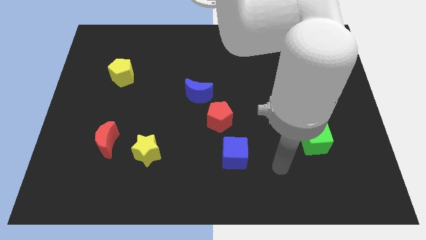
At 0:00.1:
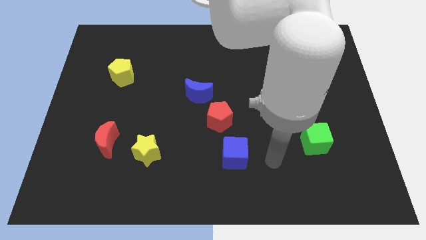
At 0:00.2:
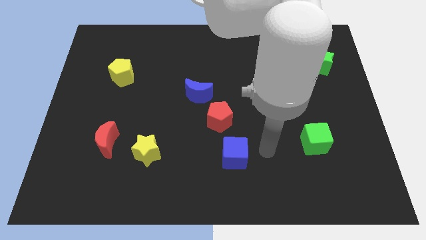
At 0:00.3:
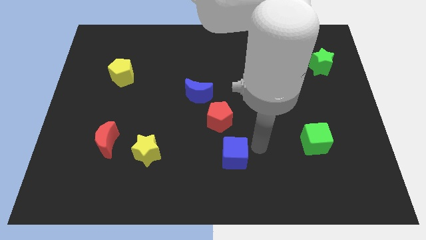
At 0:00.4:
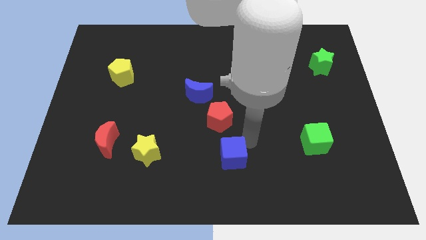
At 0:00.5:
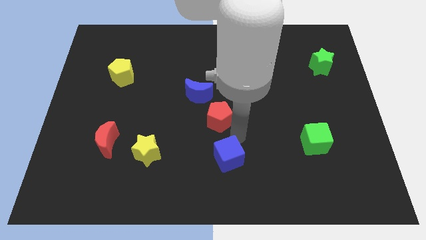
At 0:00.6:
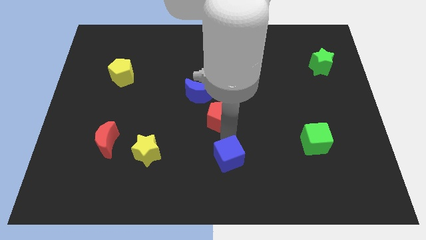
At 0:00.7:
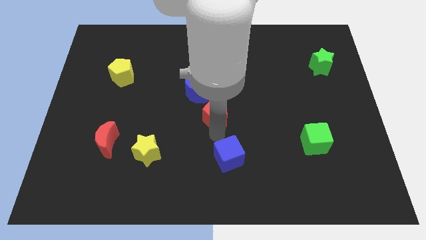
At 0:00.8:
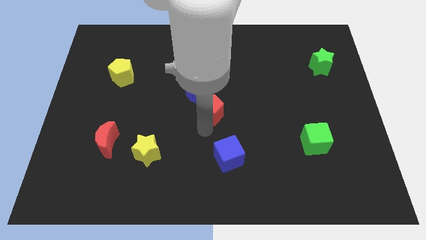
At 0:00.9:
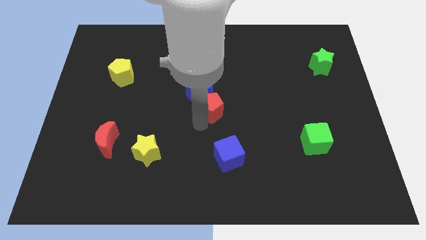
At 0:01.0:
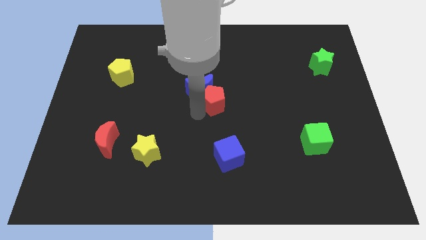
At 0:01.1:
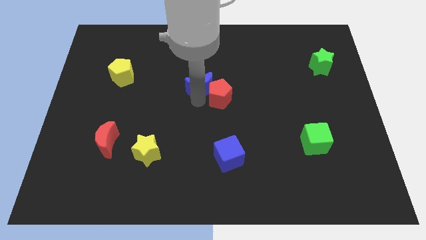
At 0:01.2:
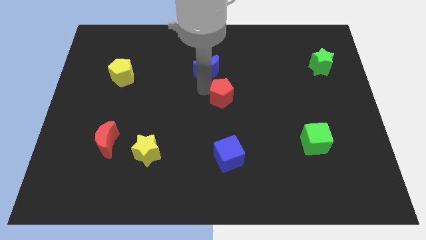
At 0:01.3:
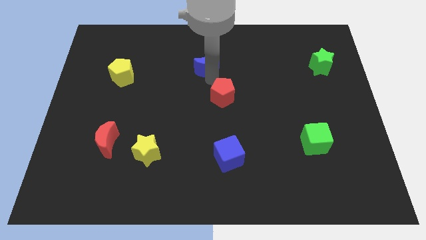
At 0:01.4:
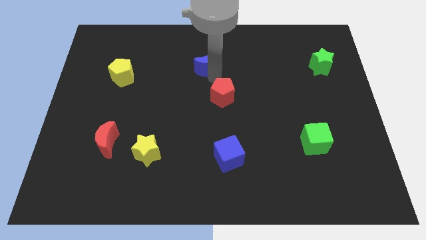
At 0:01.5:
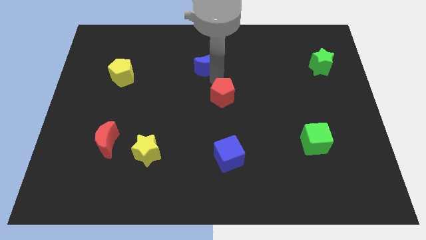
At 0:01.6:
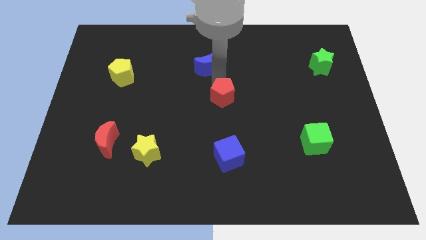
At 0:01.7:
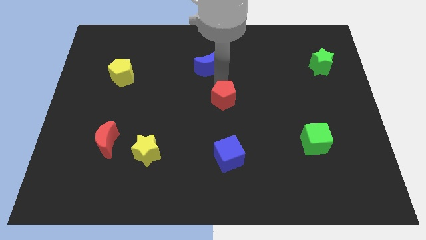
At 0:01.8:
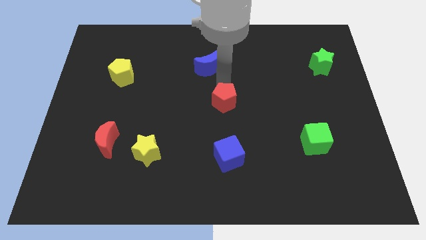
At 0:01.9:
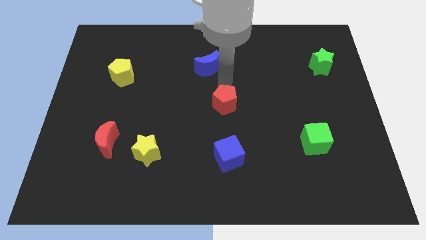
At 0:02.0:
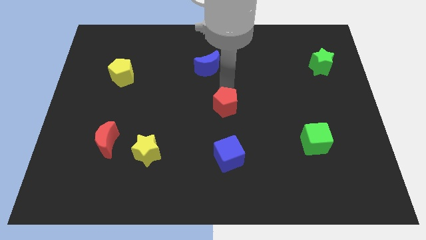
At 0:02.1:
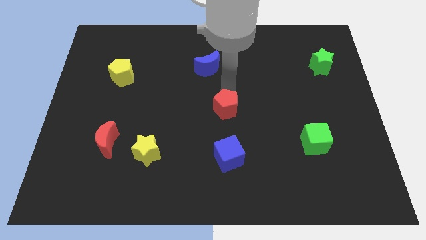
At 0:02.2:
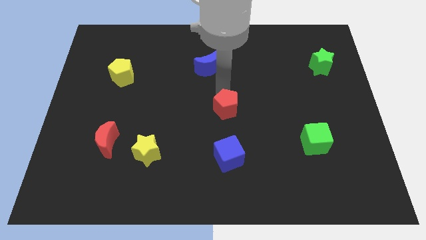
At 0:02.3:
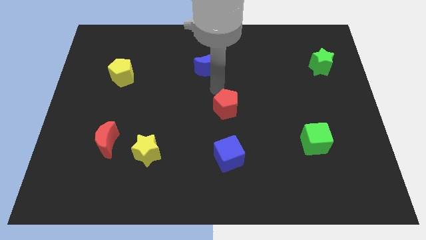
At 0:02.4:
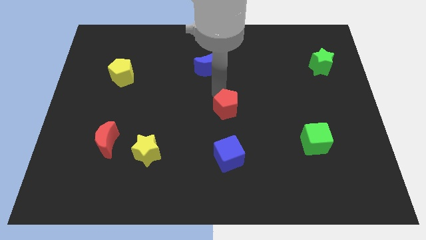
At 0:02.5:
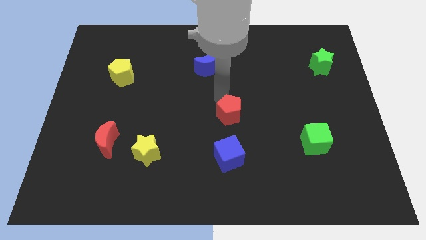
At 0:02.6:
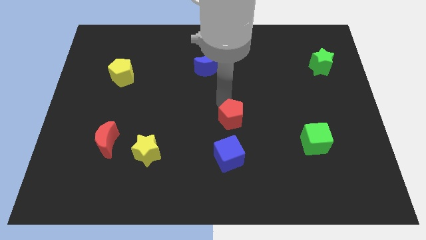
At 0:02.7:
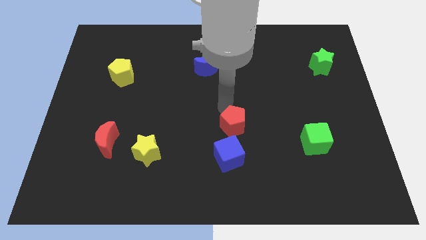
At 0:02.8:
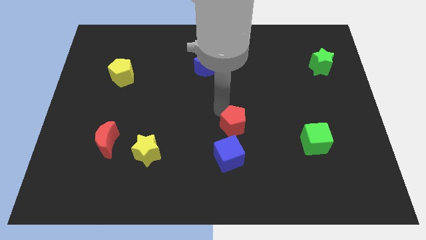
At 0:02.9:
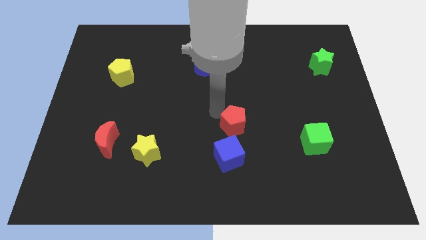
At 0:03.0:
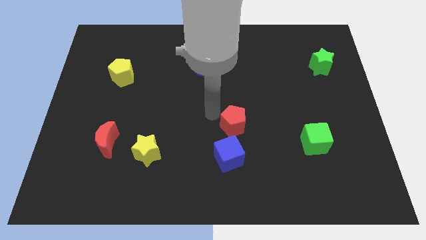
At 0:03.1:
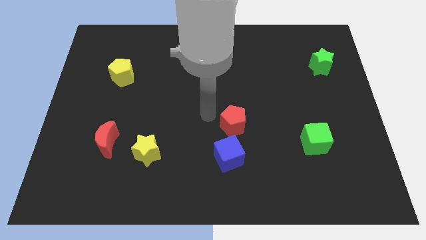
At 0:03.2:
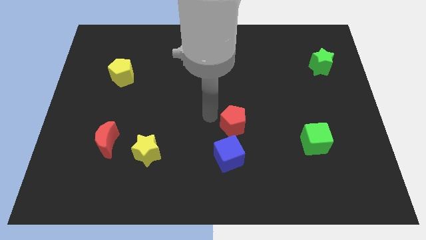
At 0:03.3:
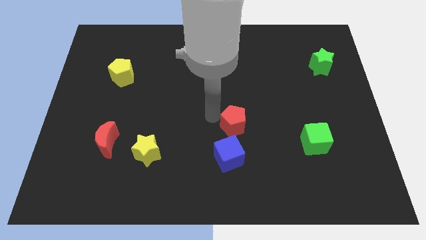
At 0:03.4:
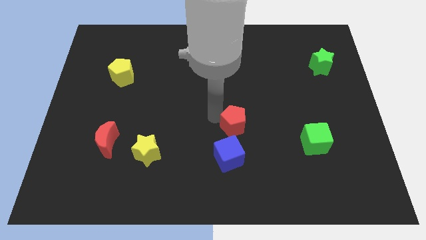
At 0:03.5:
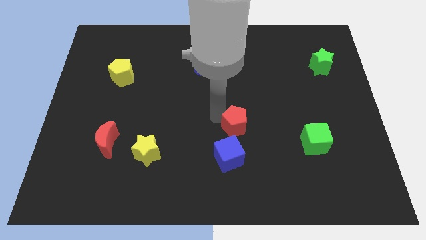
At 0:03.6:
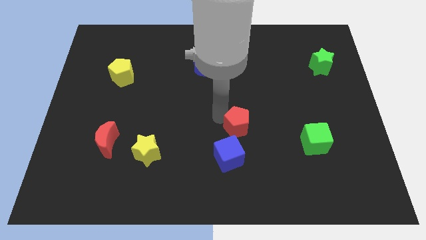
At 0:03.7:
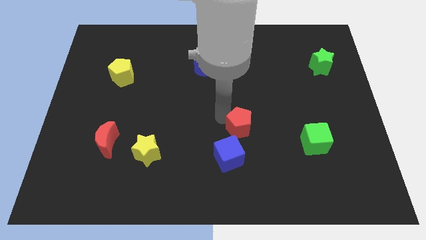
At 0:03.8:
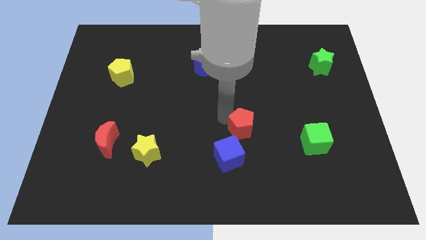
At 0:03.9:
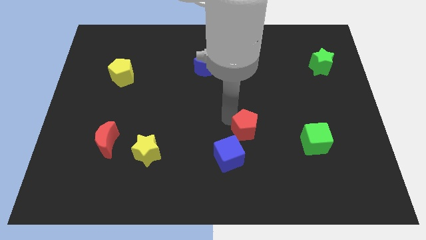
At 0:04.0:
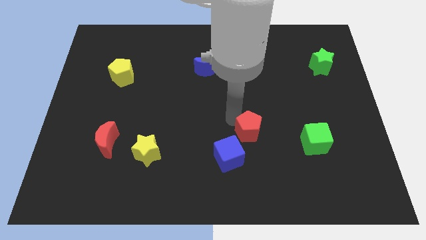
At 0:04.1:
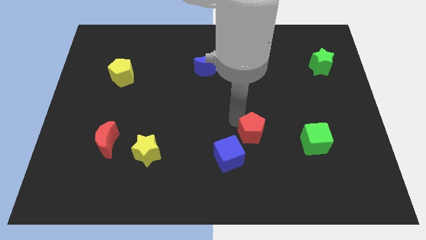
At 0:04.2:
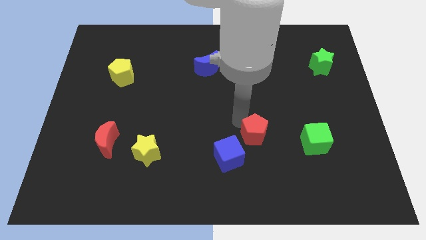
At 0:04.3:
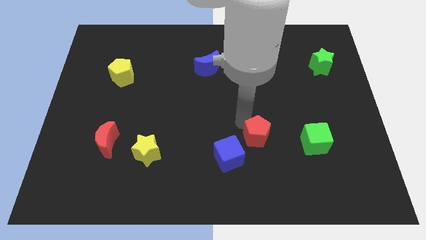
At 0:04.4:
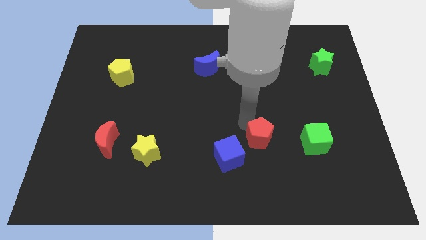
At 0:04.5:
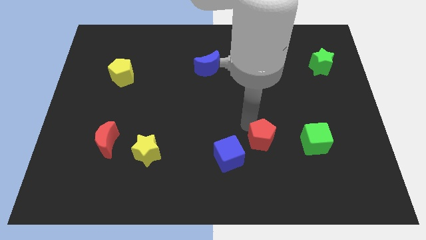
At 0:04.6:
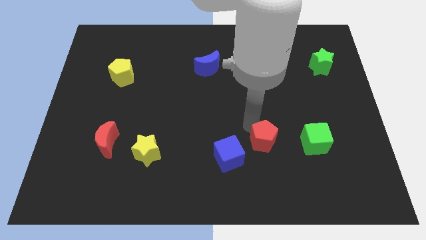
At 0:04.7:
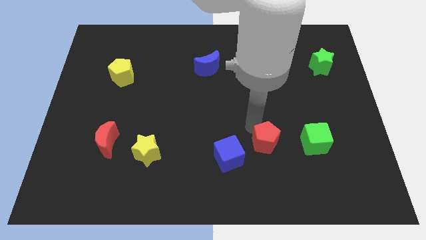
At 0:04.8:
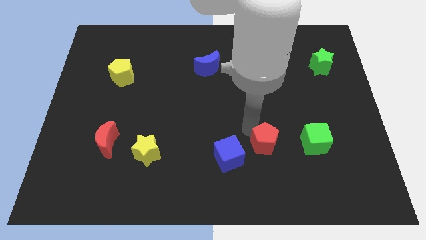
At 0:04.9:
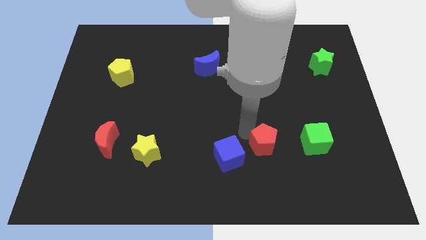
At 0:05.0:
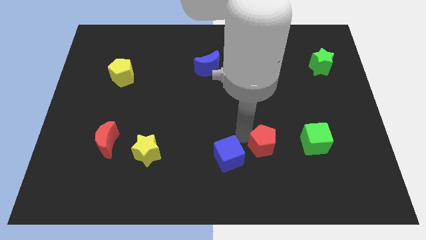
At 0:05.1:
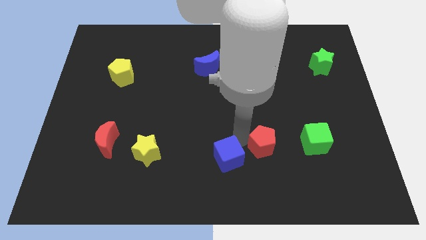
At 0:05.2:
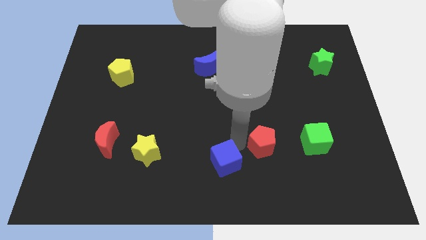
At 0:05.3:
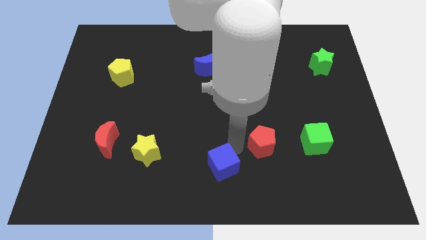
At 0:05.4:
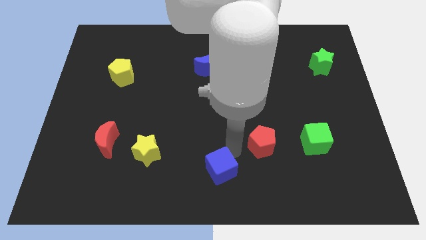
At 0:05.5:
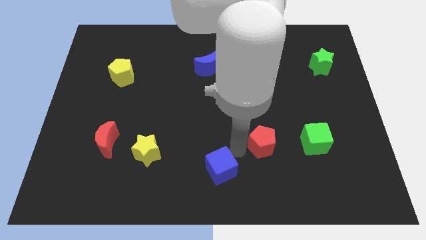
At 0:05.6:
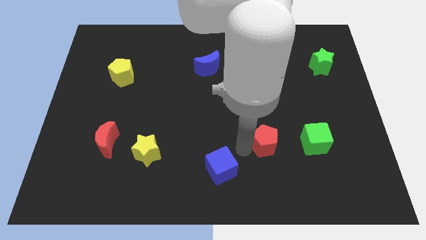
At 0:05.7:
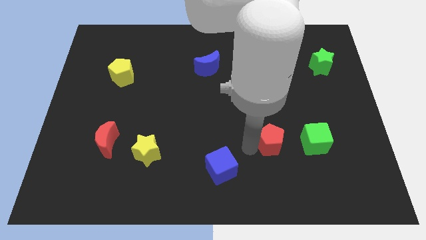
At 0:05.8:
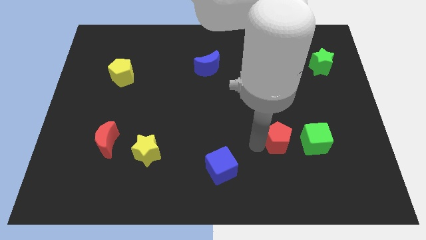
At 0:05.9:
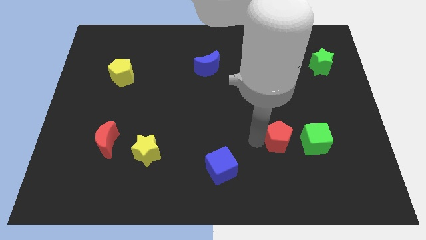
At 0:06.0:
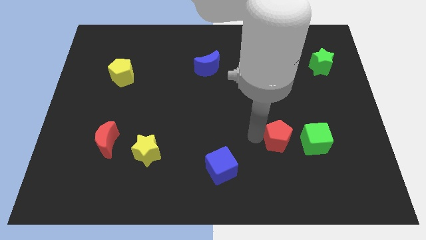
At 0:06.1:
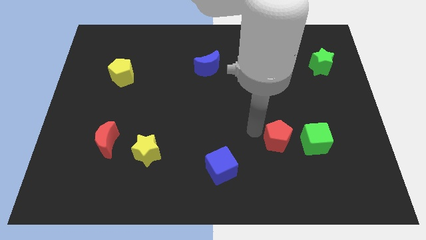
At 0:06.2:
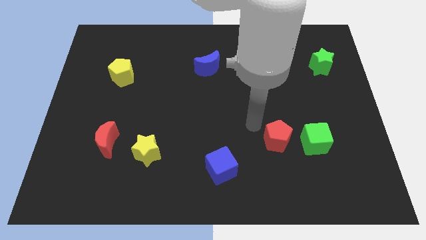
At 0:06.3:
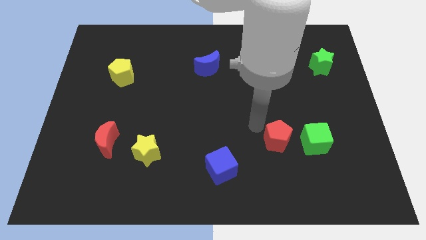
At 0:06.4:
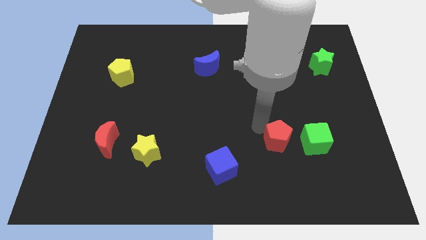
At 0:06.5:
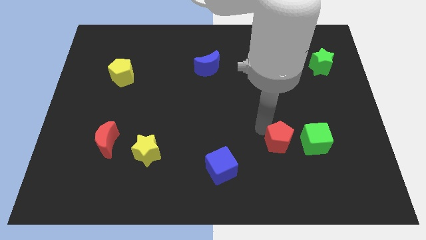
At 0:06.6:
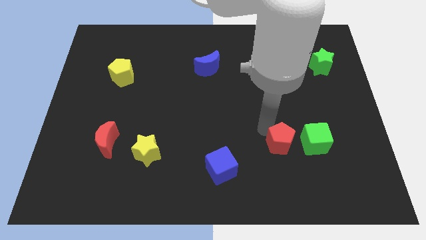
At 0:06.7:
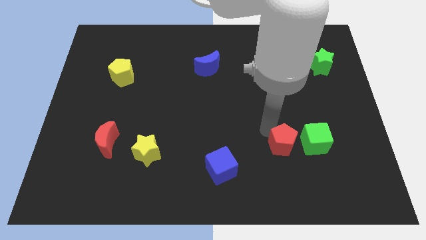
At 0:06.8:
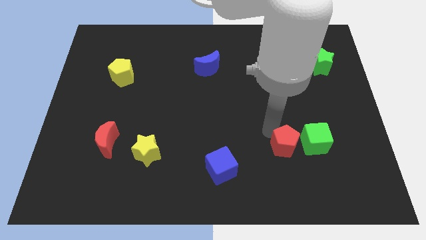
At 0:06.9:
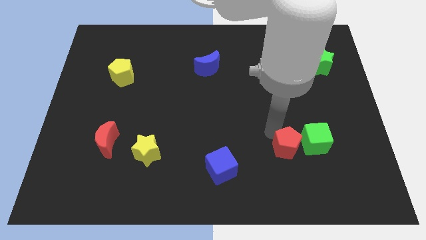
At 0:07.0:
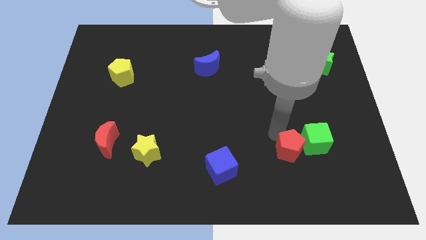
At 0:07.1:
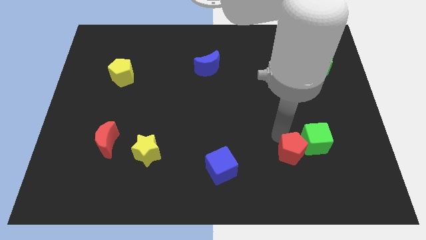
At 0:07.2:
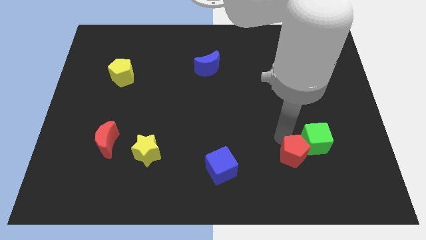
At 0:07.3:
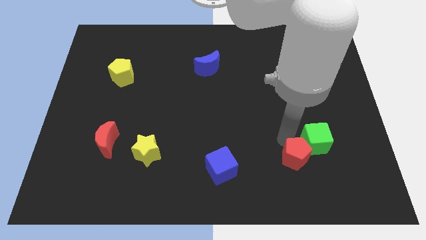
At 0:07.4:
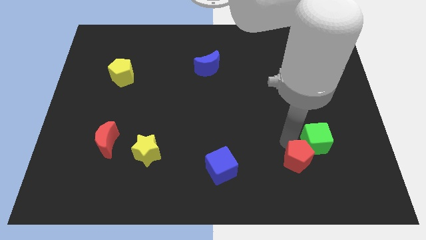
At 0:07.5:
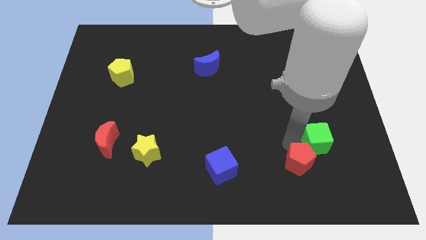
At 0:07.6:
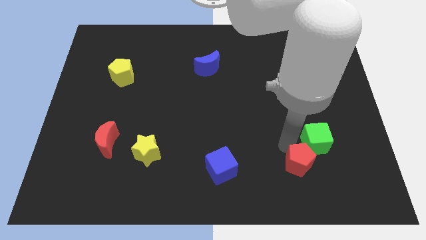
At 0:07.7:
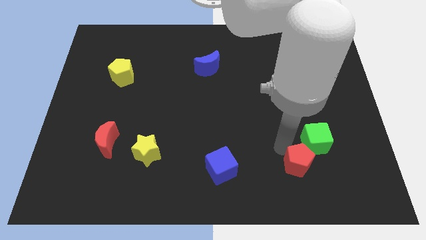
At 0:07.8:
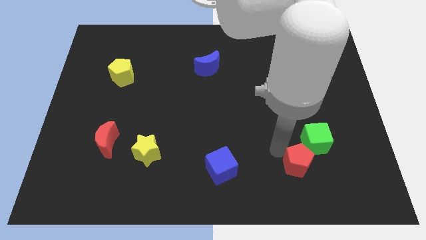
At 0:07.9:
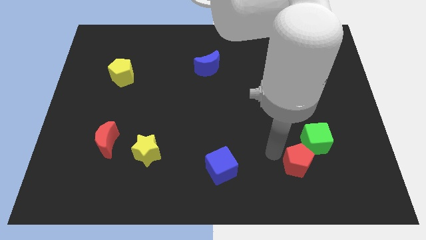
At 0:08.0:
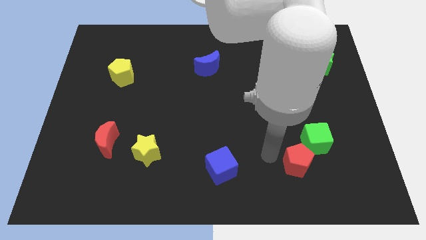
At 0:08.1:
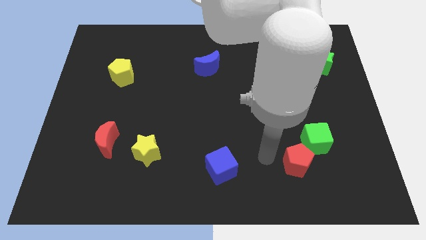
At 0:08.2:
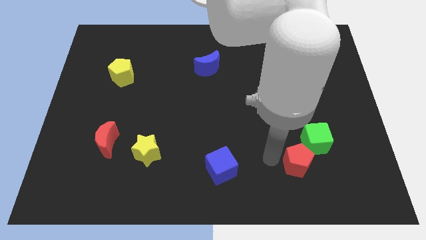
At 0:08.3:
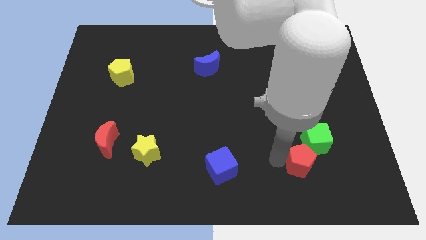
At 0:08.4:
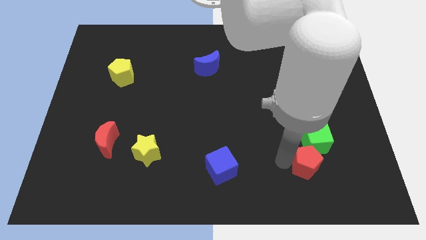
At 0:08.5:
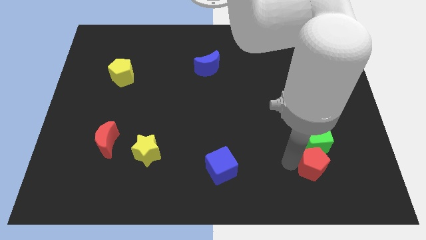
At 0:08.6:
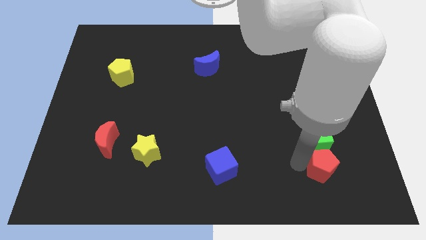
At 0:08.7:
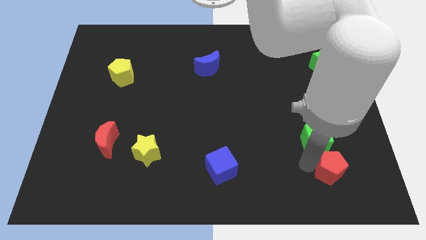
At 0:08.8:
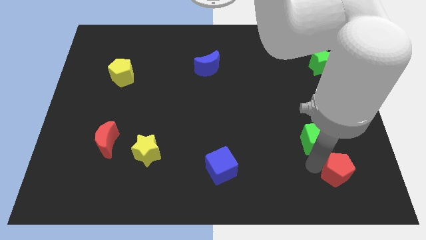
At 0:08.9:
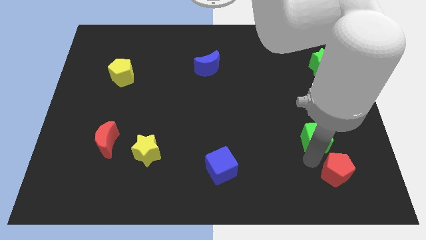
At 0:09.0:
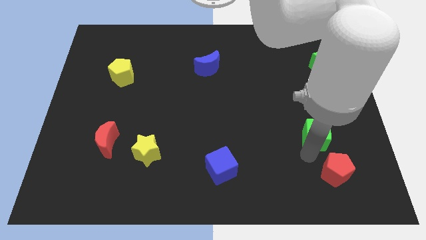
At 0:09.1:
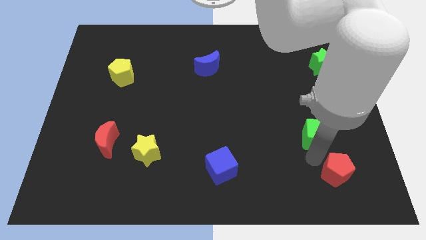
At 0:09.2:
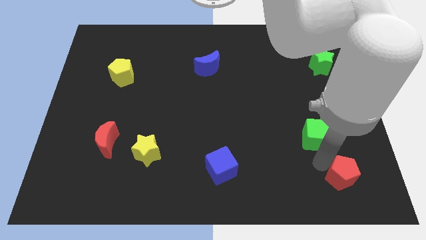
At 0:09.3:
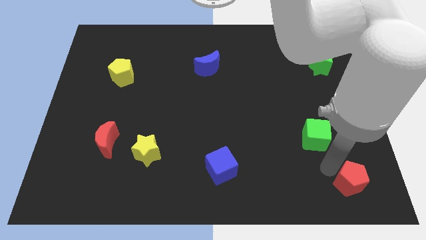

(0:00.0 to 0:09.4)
slide the red pentagon to the bottom right
